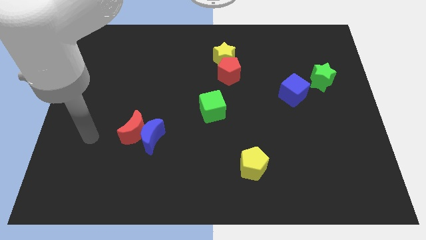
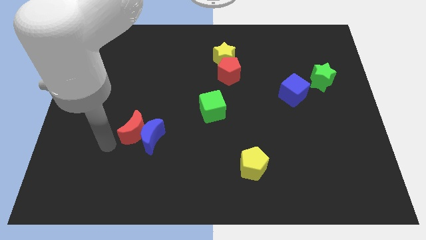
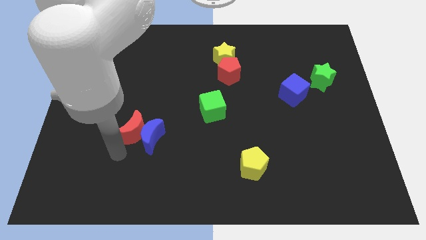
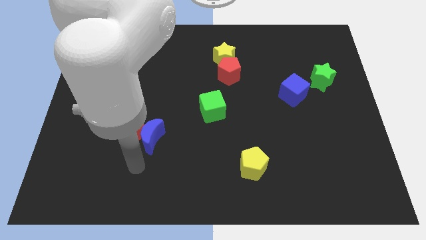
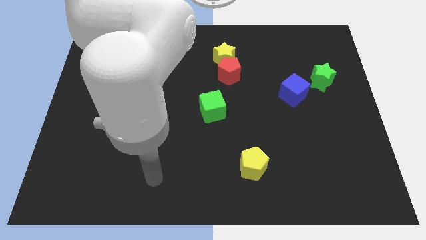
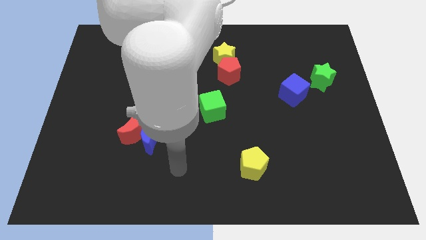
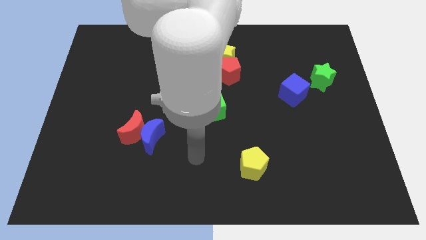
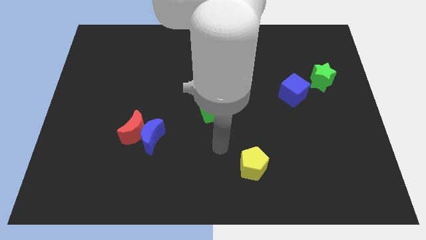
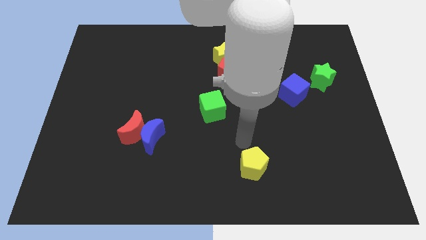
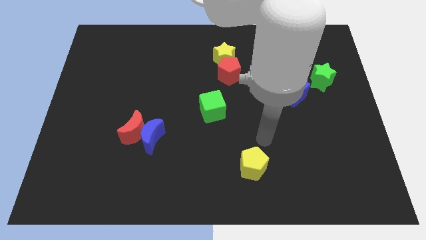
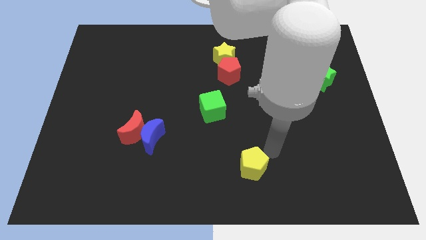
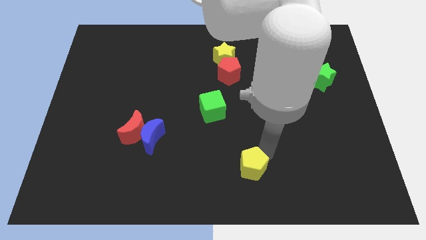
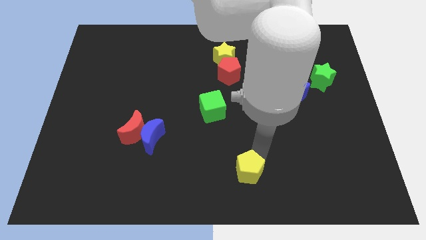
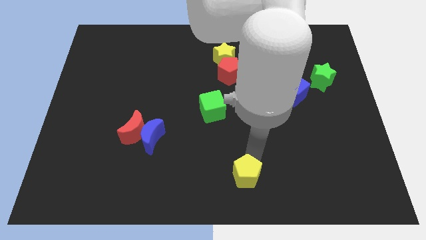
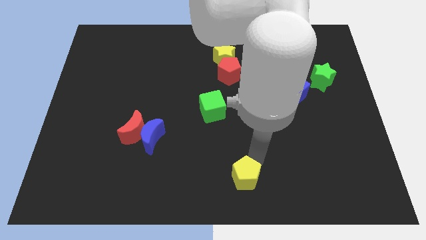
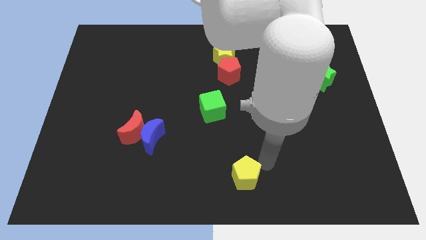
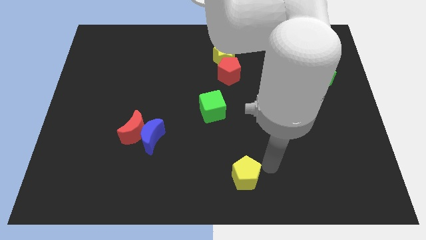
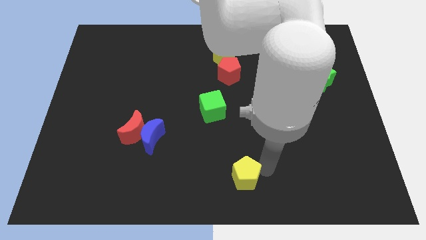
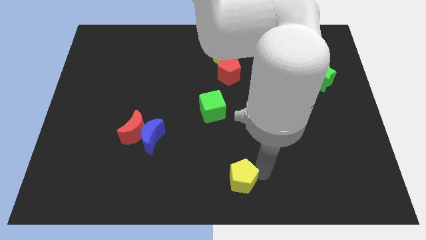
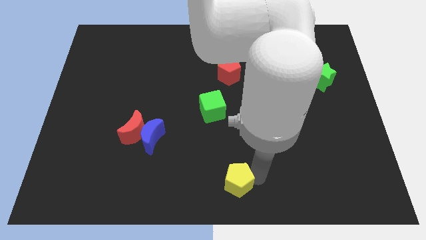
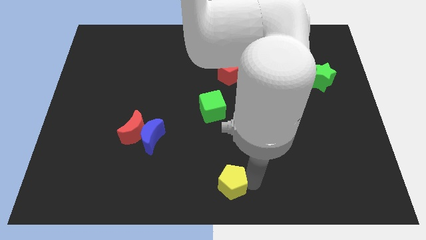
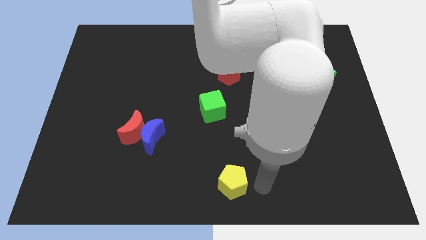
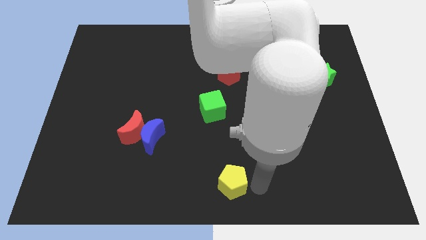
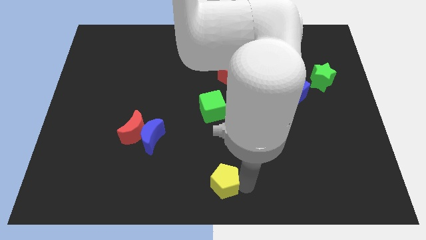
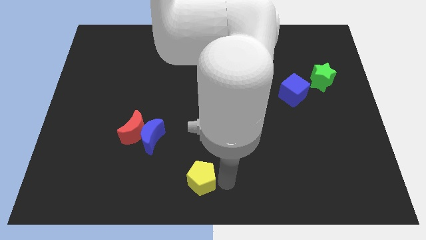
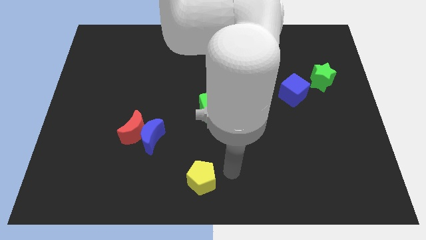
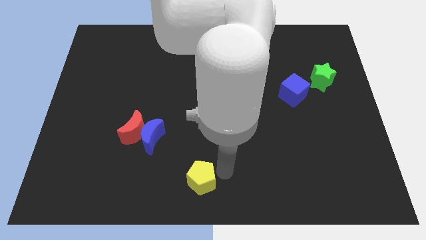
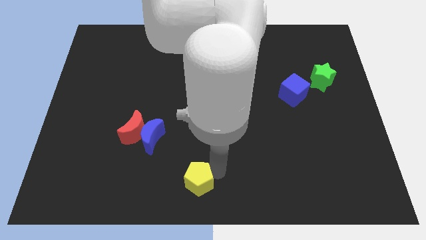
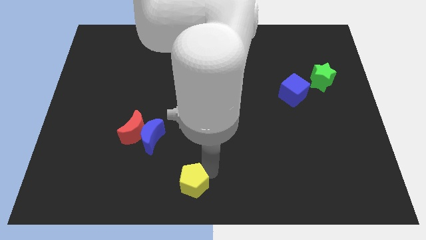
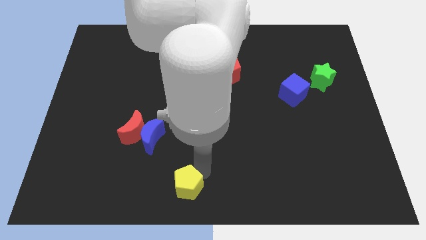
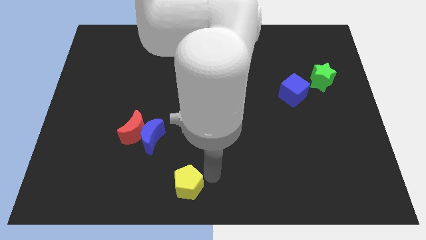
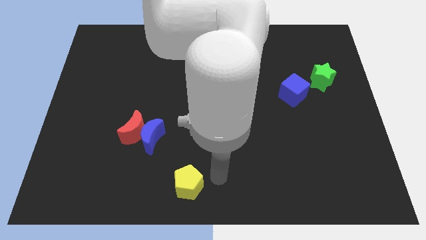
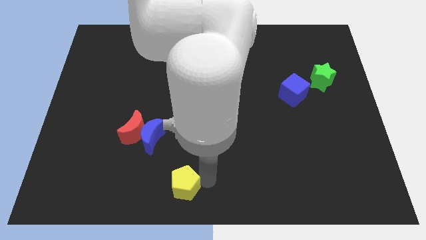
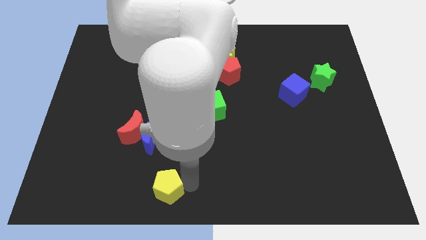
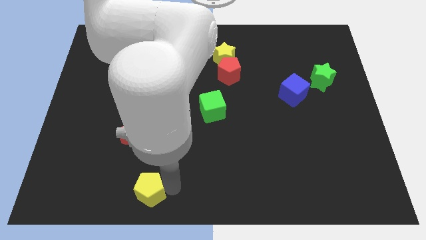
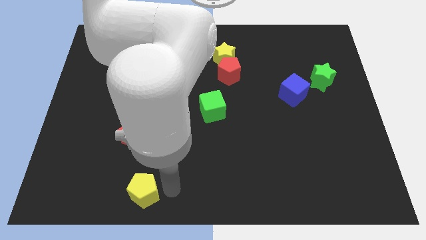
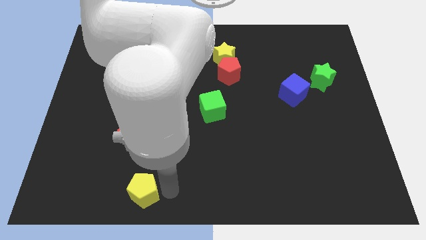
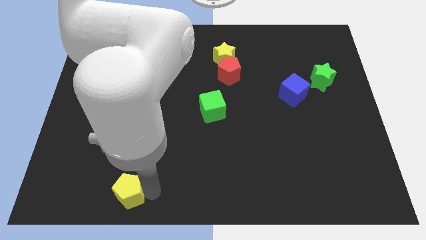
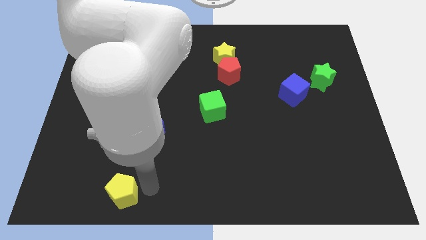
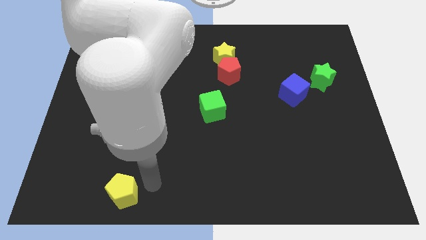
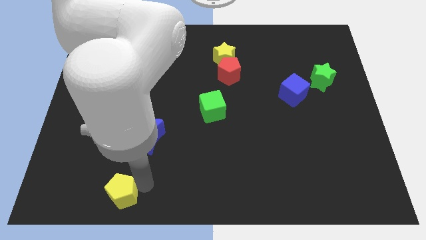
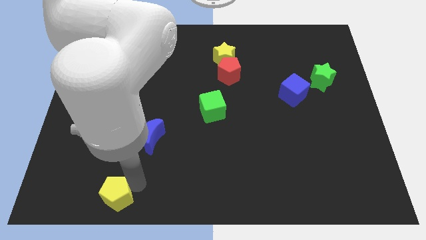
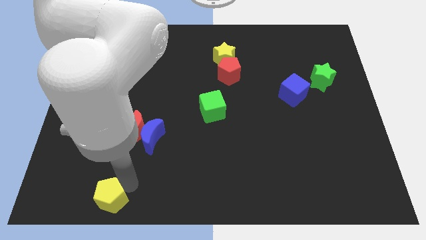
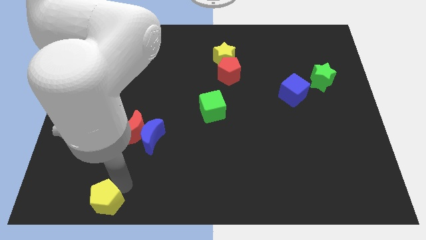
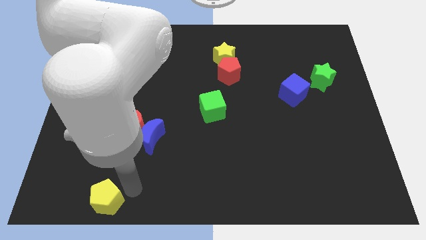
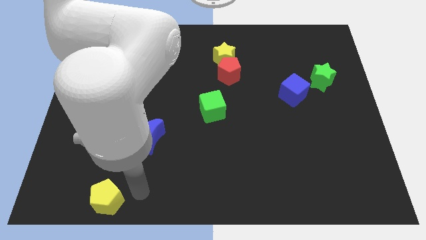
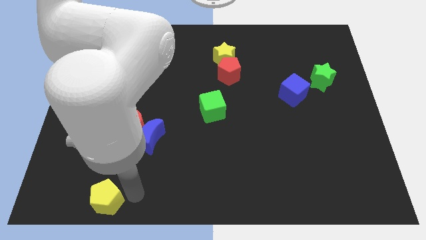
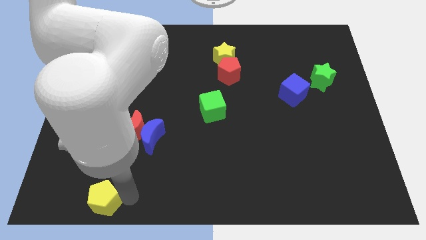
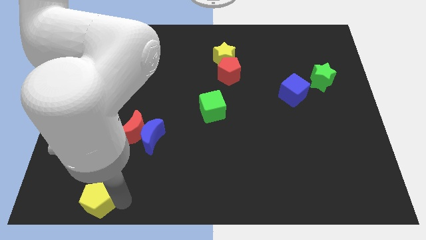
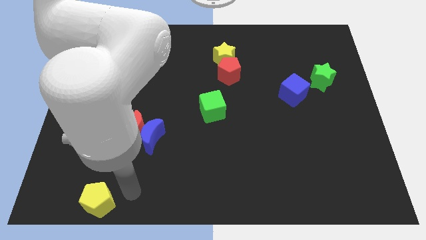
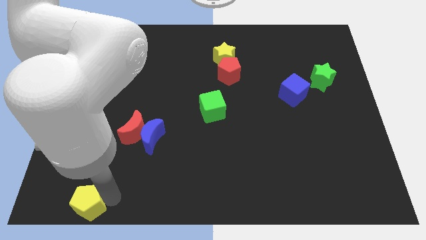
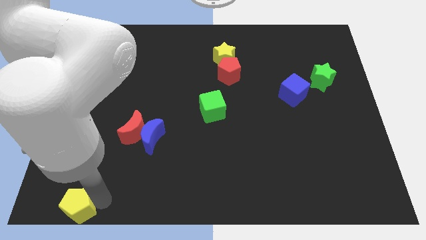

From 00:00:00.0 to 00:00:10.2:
push the yellow pentagon to the bottom left

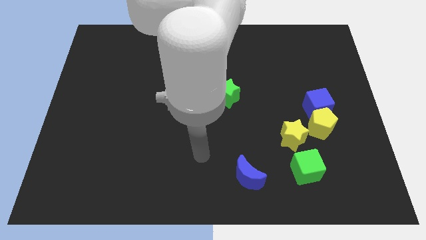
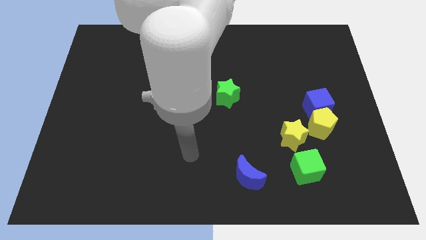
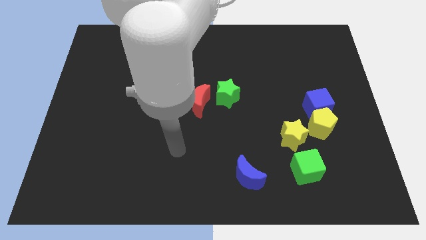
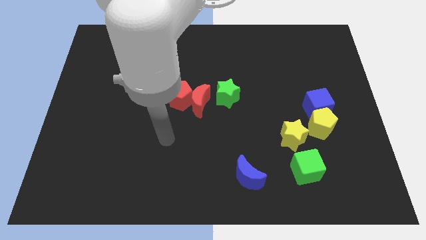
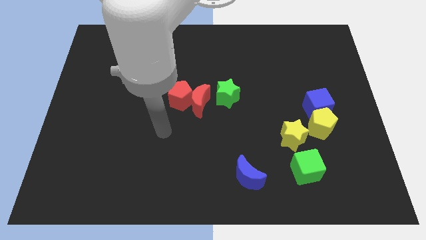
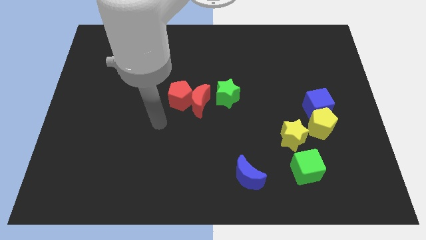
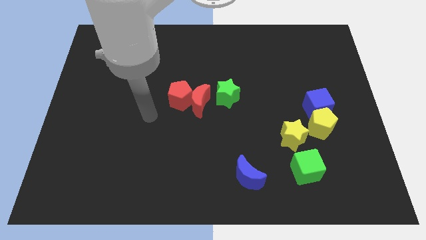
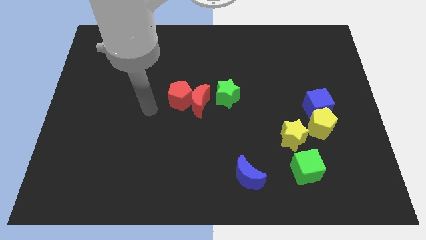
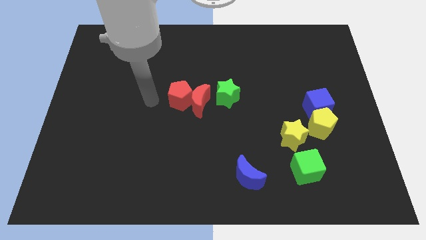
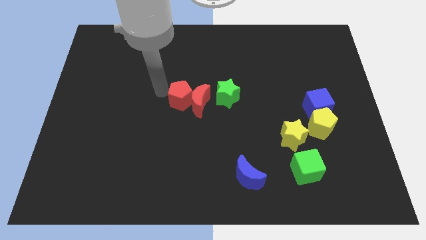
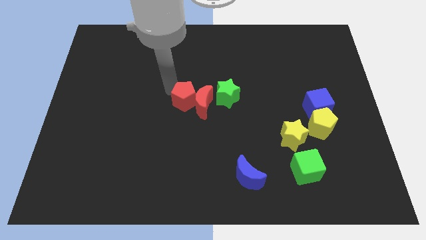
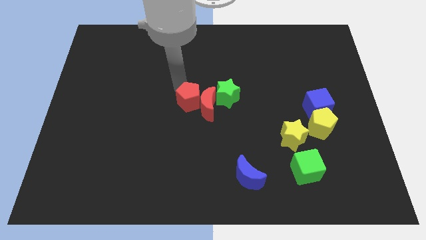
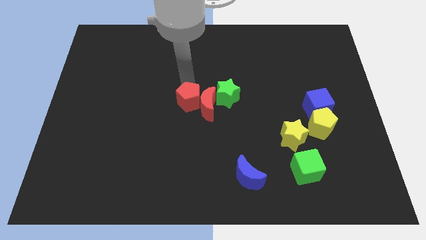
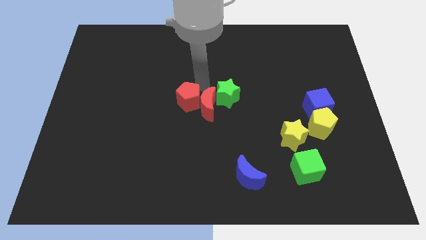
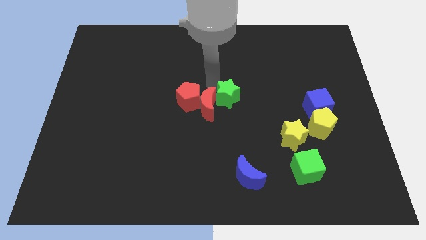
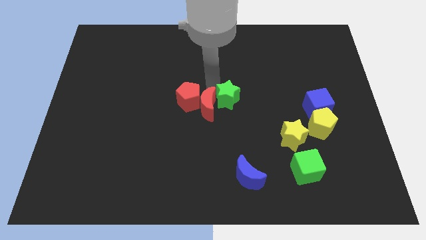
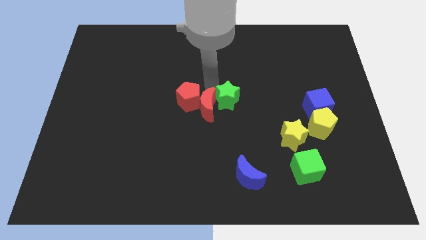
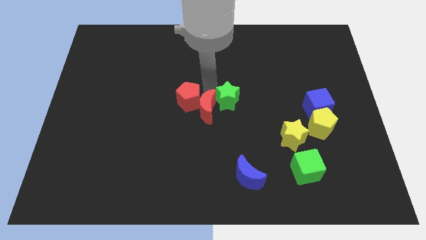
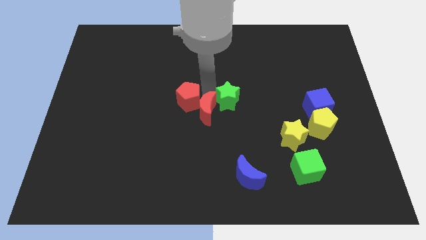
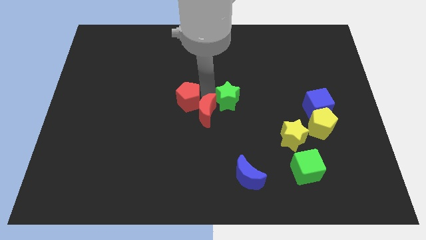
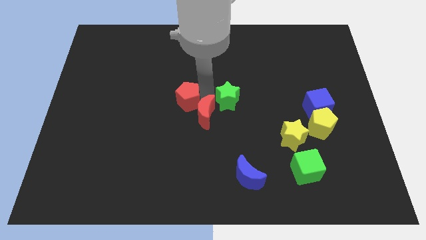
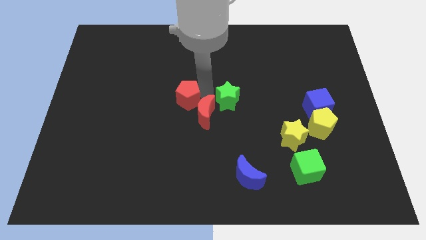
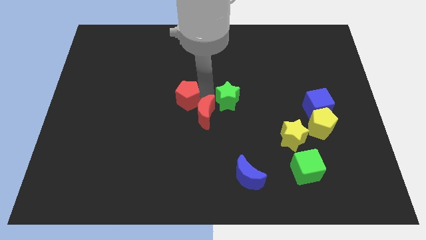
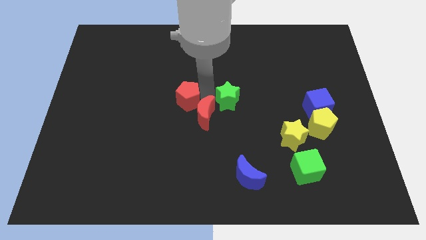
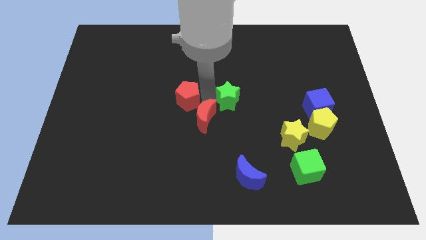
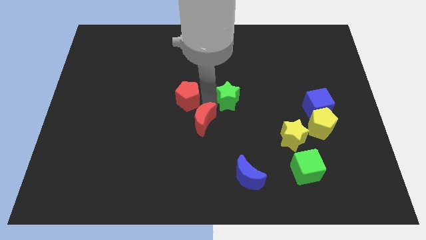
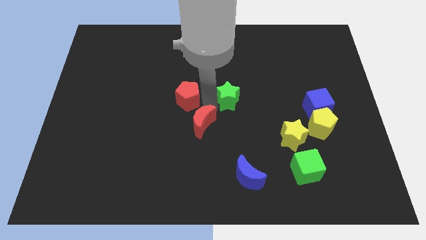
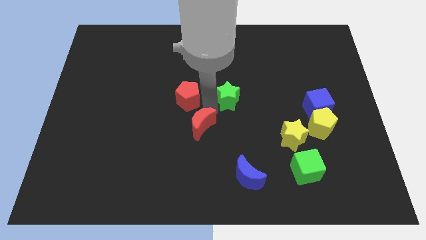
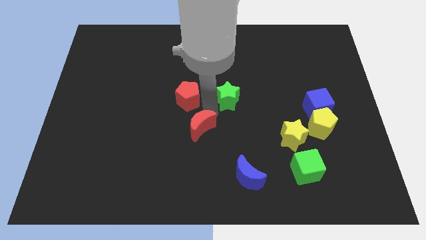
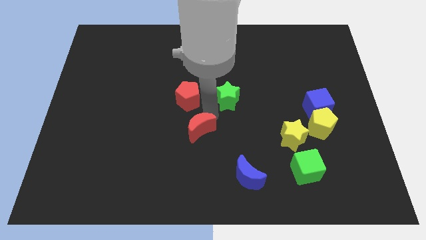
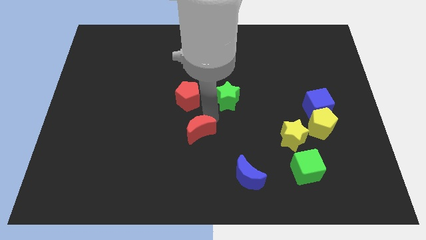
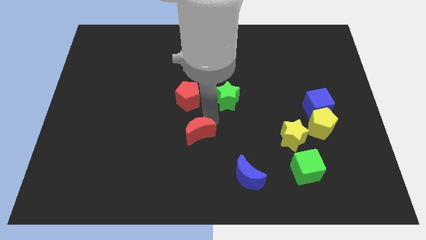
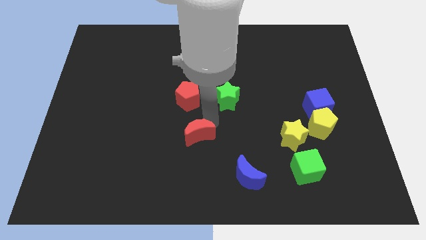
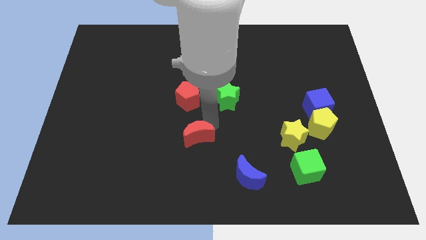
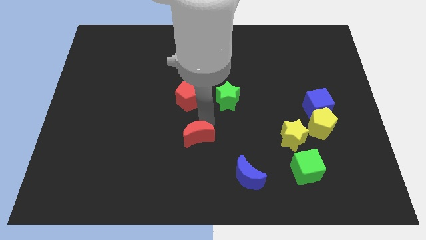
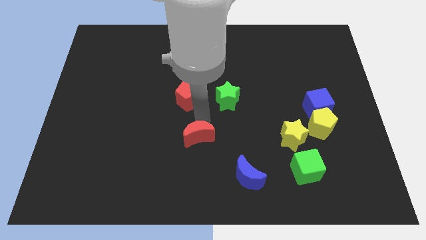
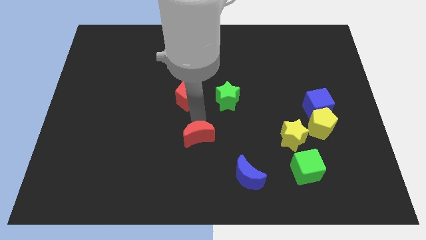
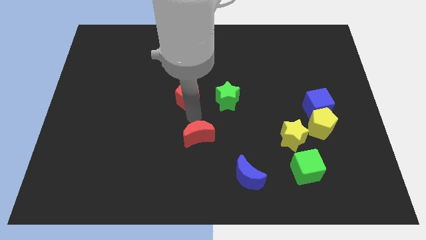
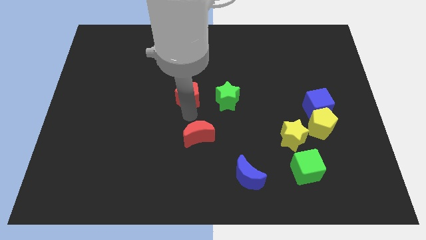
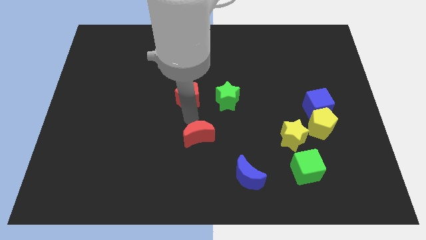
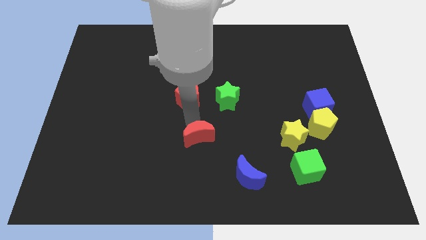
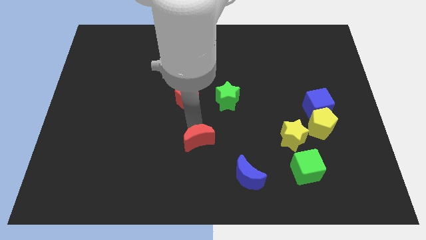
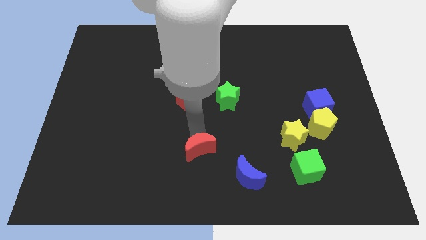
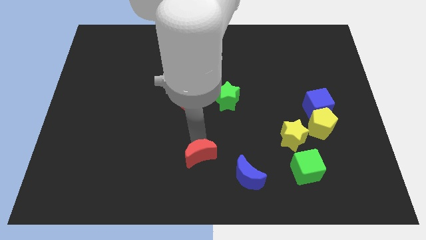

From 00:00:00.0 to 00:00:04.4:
slide the red moon to the bottom side
